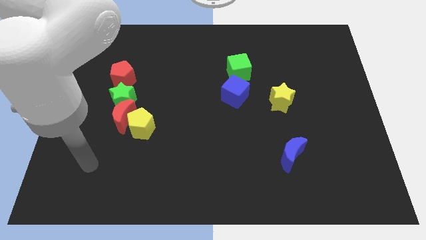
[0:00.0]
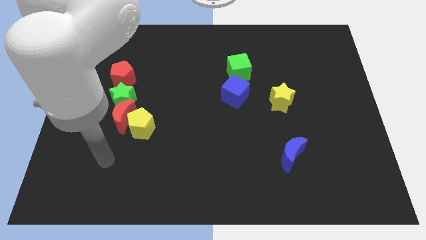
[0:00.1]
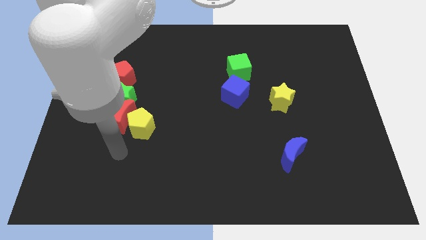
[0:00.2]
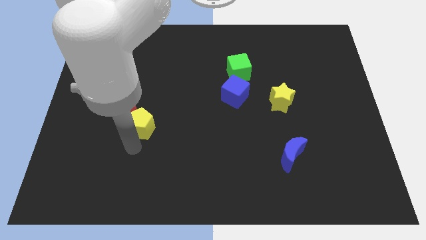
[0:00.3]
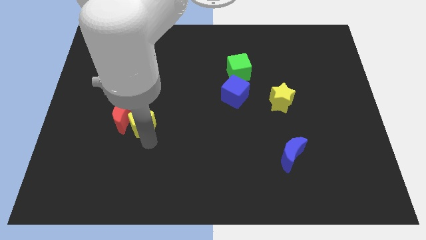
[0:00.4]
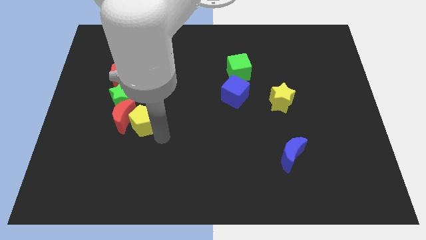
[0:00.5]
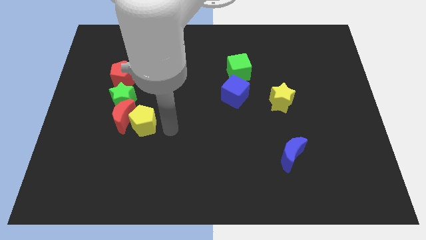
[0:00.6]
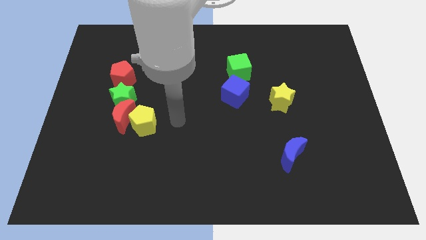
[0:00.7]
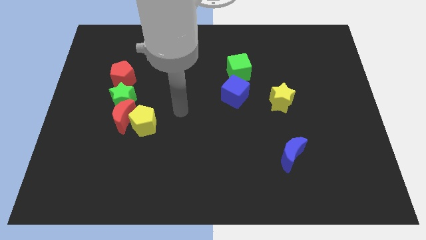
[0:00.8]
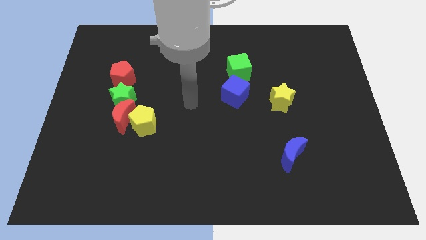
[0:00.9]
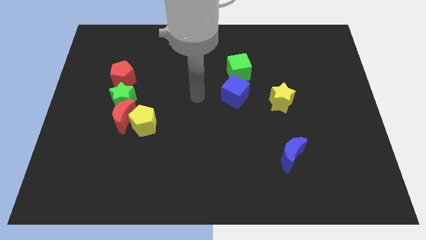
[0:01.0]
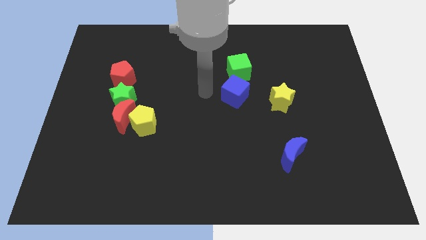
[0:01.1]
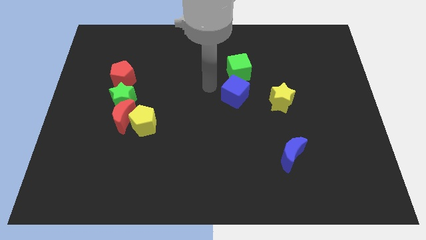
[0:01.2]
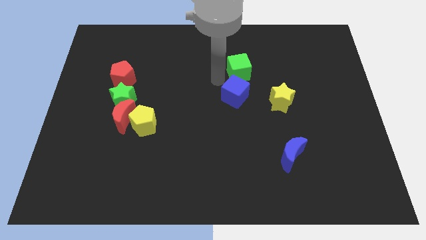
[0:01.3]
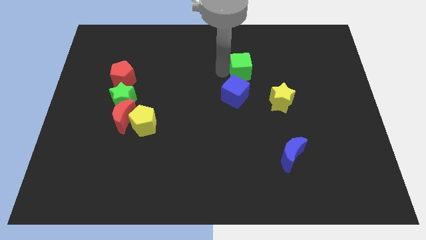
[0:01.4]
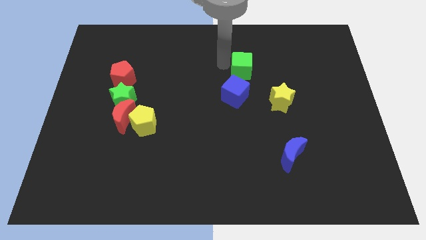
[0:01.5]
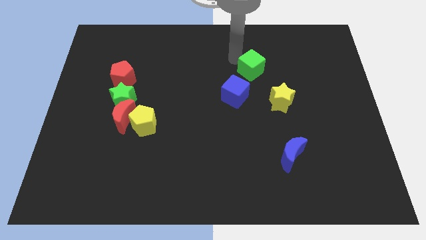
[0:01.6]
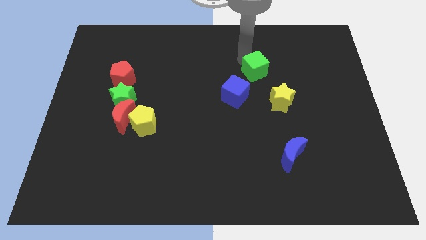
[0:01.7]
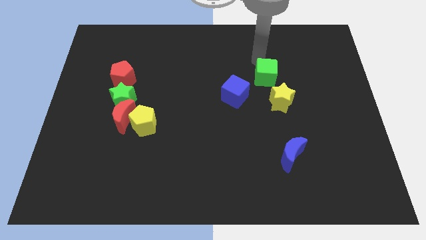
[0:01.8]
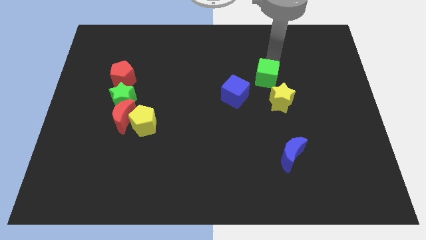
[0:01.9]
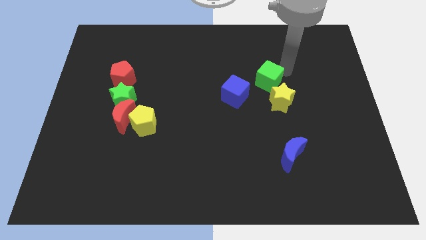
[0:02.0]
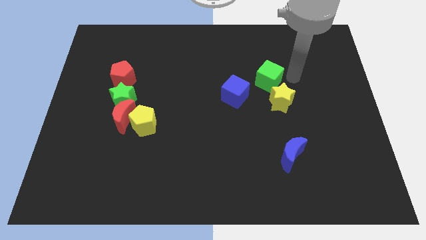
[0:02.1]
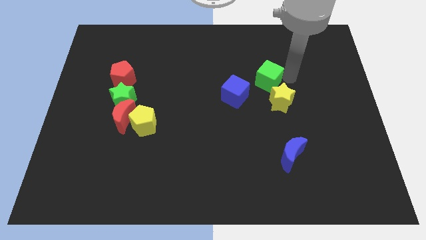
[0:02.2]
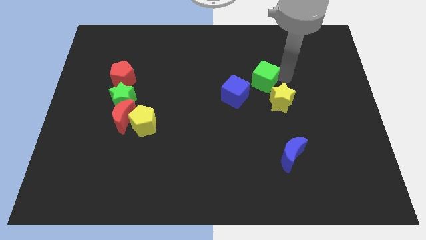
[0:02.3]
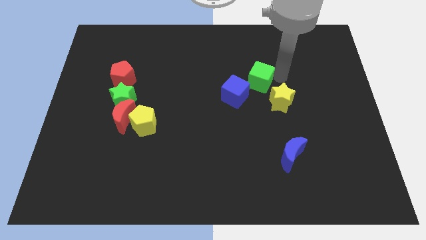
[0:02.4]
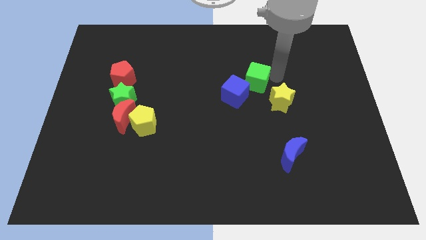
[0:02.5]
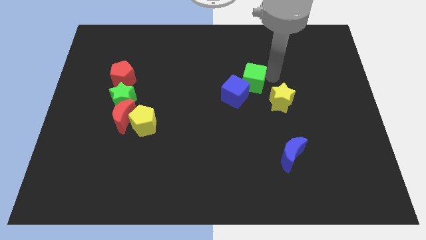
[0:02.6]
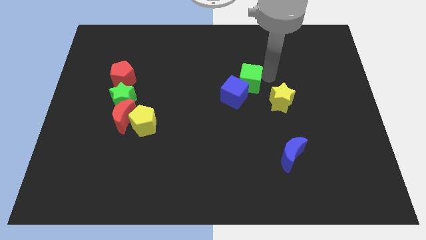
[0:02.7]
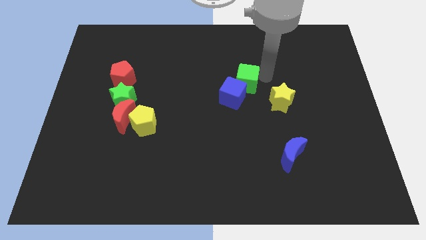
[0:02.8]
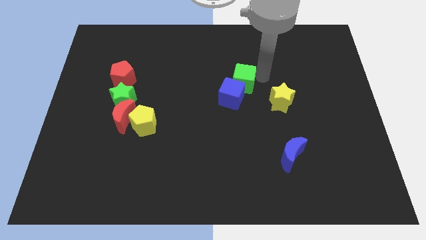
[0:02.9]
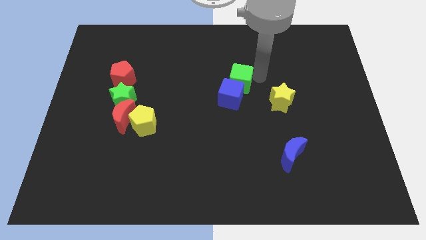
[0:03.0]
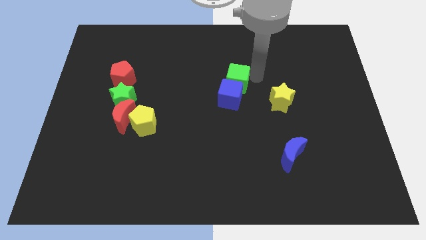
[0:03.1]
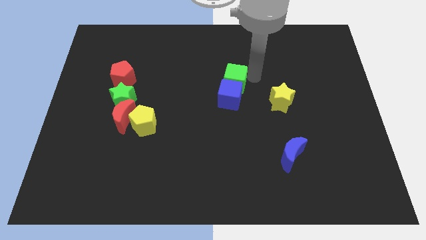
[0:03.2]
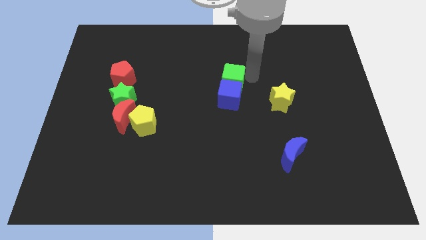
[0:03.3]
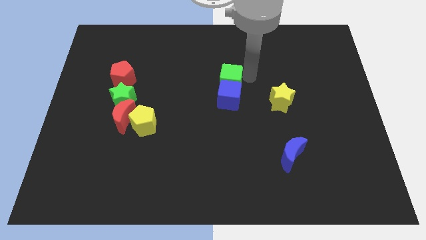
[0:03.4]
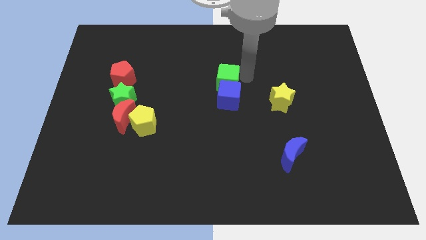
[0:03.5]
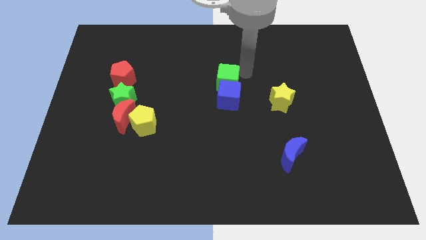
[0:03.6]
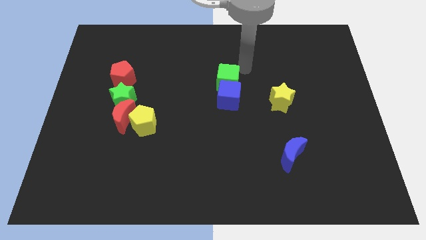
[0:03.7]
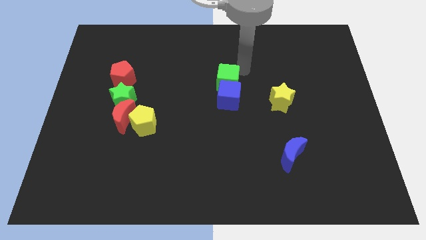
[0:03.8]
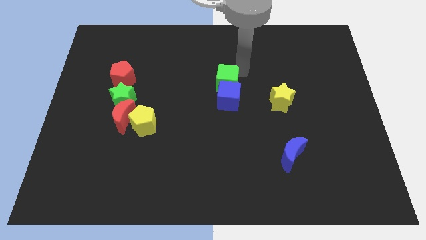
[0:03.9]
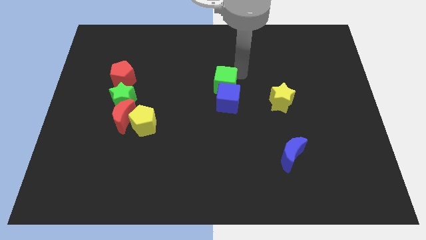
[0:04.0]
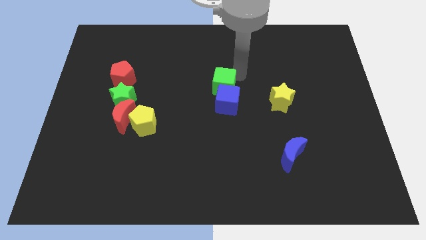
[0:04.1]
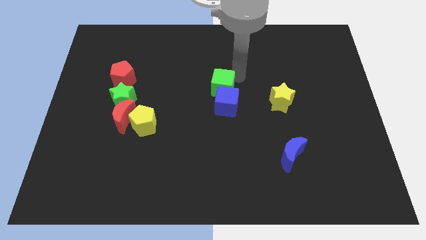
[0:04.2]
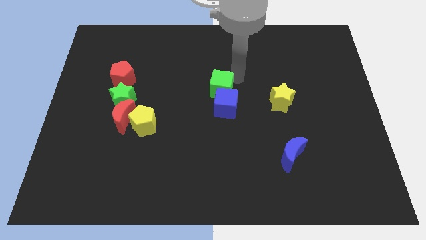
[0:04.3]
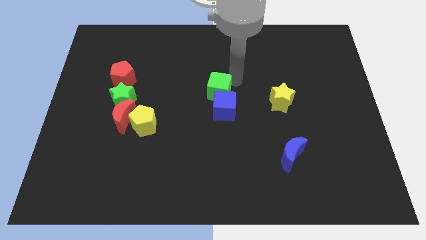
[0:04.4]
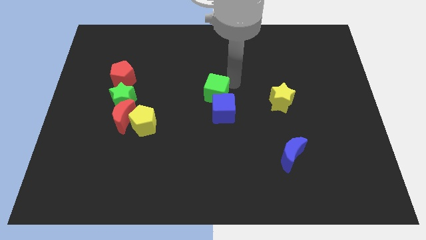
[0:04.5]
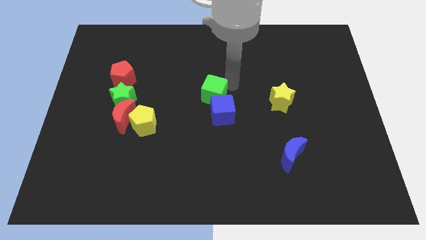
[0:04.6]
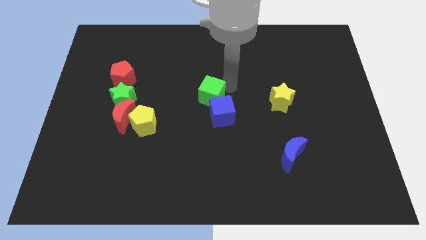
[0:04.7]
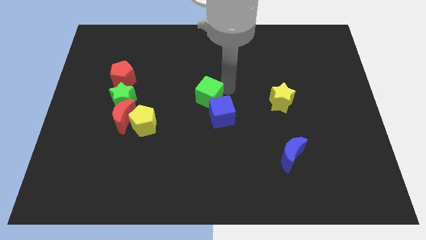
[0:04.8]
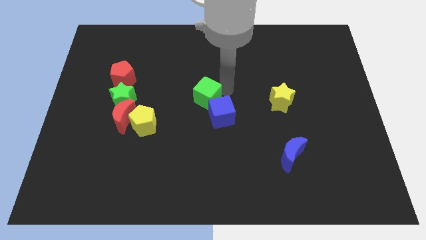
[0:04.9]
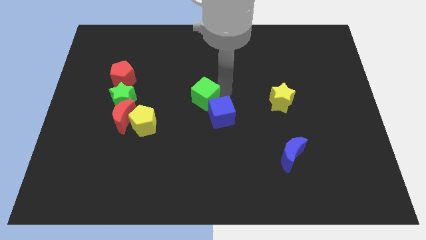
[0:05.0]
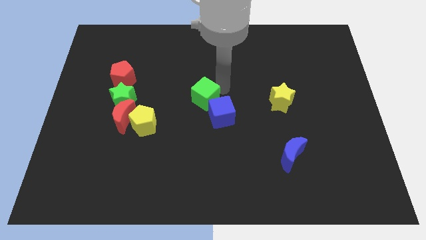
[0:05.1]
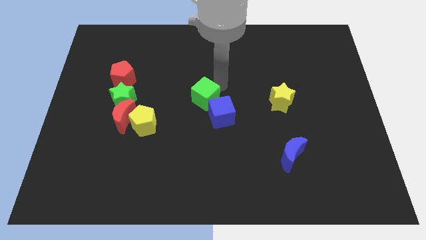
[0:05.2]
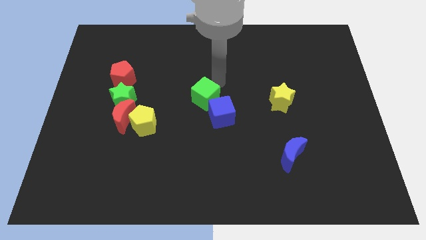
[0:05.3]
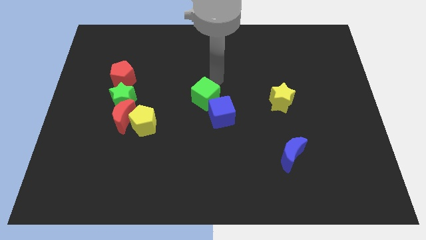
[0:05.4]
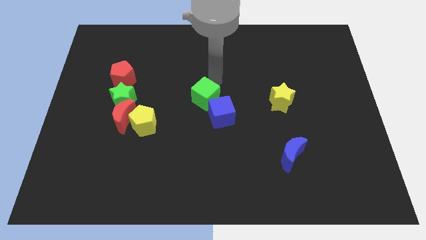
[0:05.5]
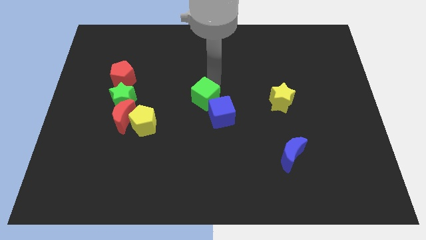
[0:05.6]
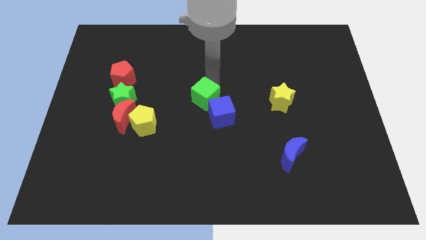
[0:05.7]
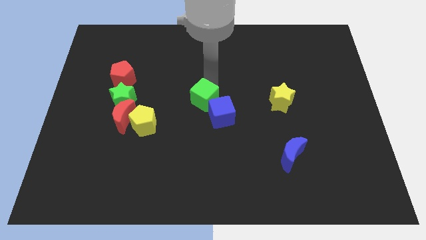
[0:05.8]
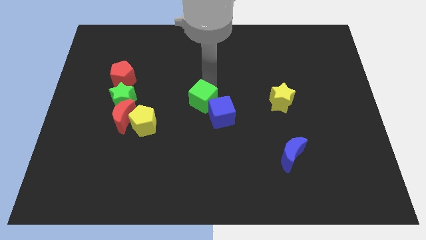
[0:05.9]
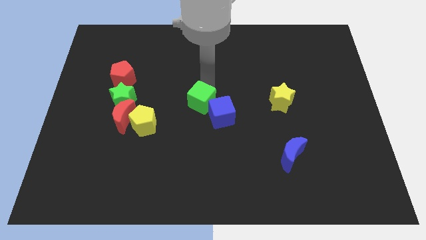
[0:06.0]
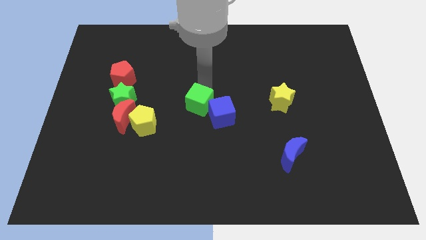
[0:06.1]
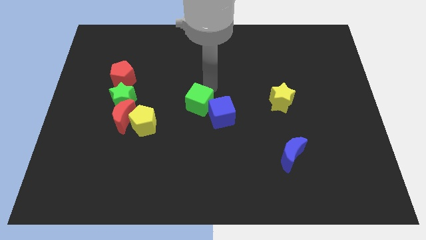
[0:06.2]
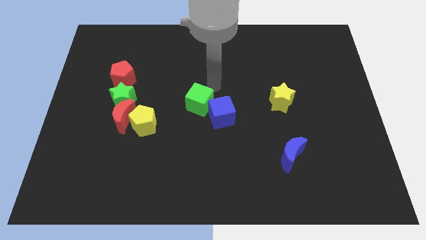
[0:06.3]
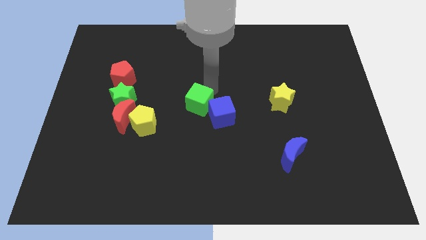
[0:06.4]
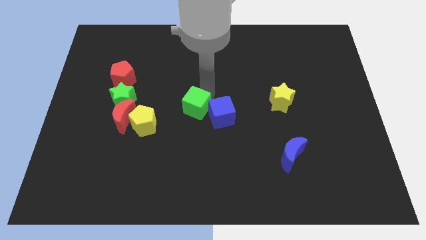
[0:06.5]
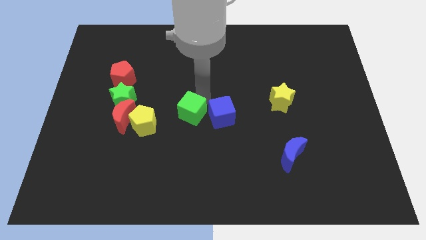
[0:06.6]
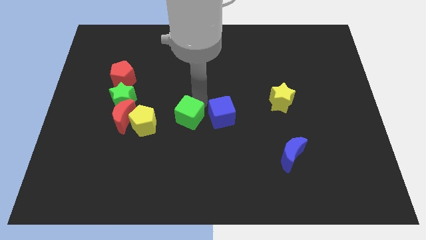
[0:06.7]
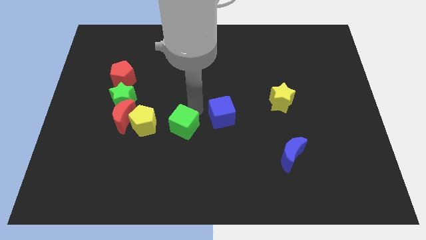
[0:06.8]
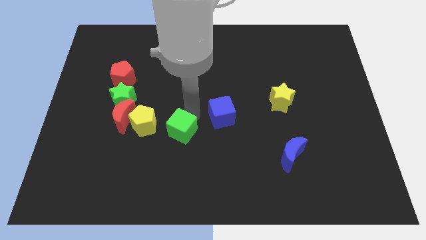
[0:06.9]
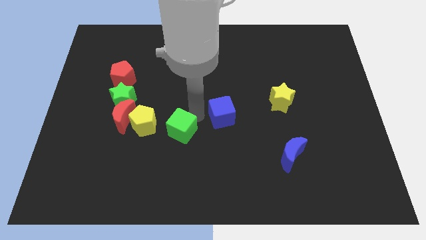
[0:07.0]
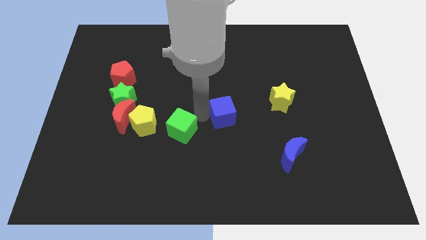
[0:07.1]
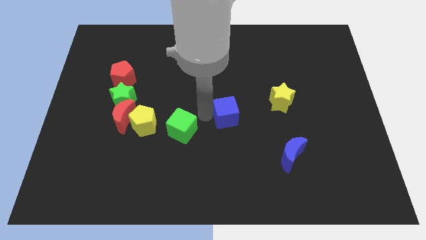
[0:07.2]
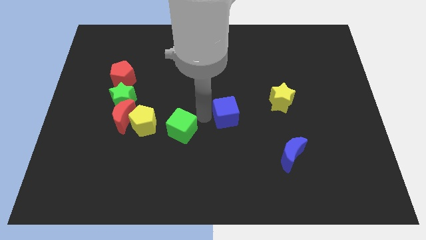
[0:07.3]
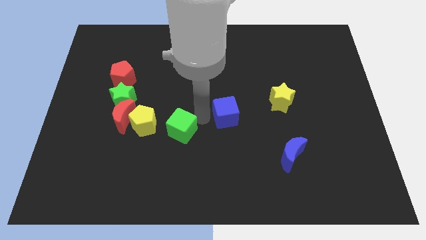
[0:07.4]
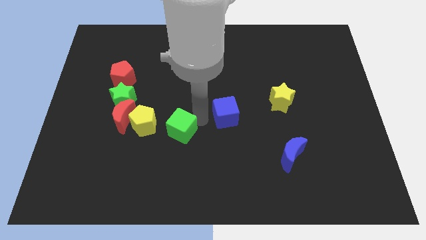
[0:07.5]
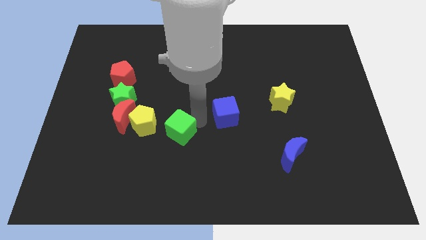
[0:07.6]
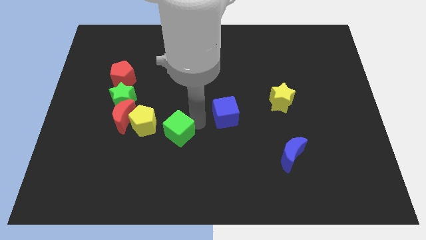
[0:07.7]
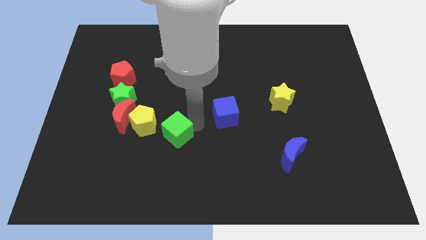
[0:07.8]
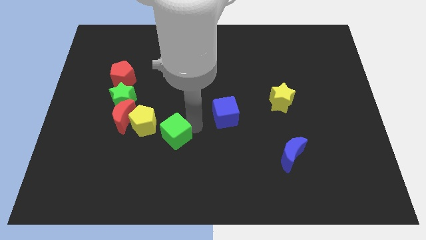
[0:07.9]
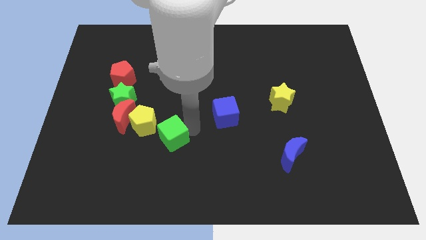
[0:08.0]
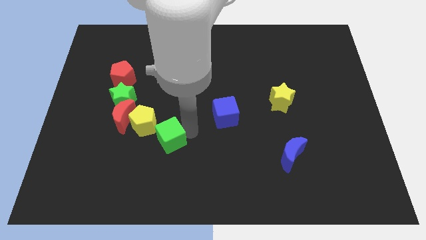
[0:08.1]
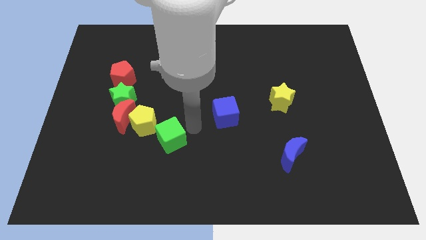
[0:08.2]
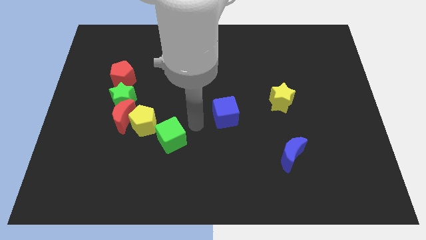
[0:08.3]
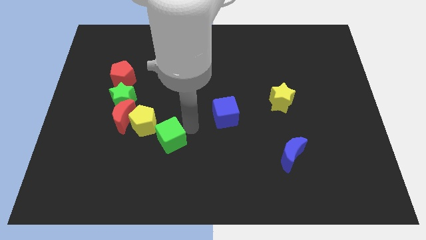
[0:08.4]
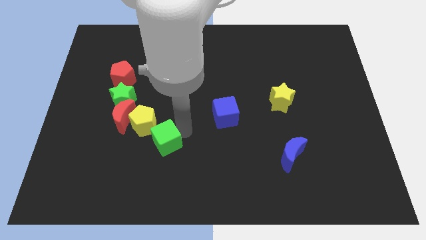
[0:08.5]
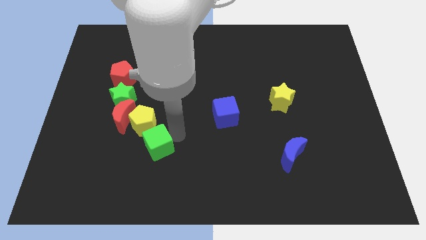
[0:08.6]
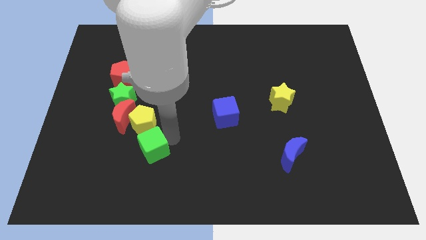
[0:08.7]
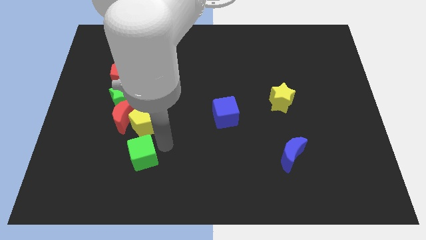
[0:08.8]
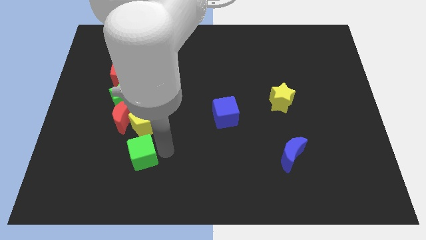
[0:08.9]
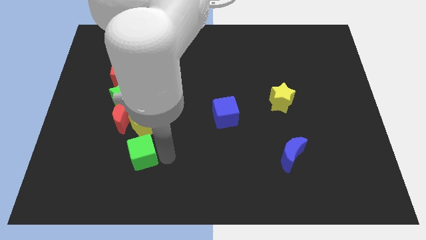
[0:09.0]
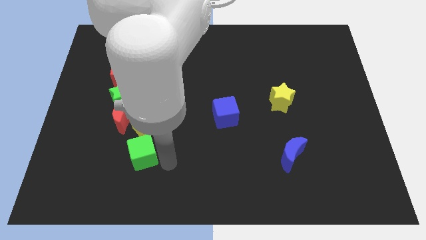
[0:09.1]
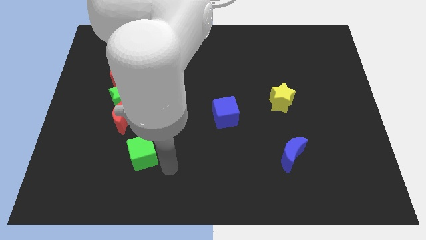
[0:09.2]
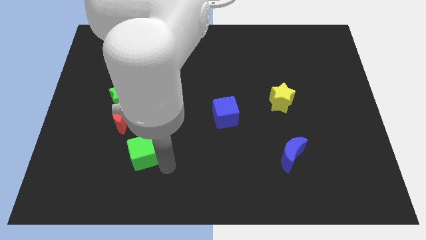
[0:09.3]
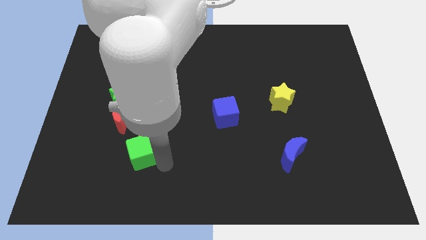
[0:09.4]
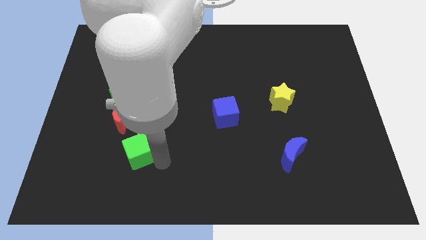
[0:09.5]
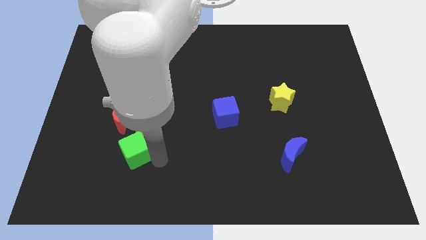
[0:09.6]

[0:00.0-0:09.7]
push the green cube to the bottom left side of the yellow pentagon
